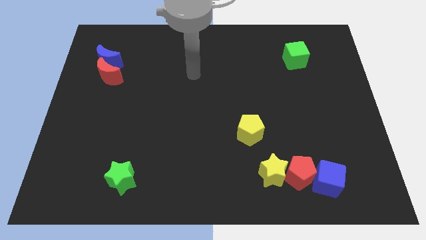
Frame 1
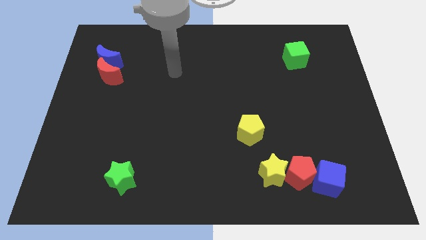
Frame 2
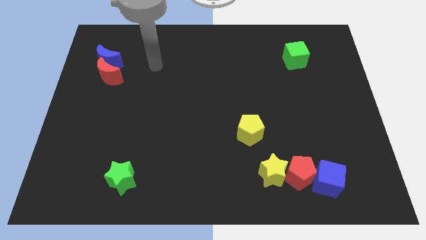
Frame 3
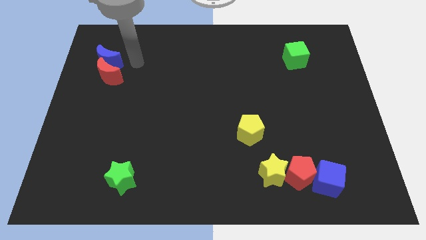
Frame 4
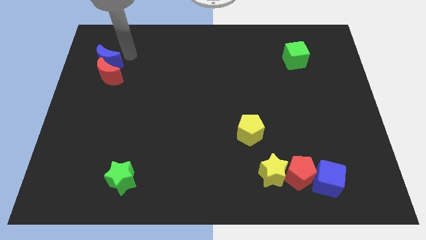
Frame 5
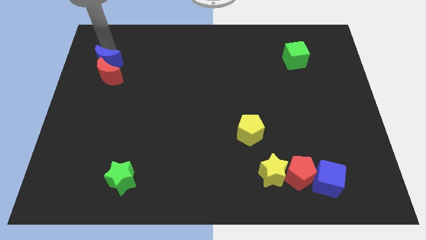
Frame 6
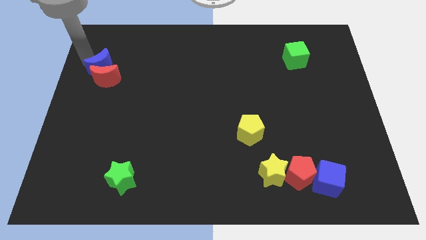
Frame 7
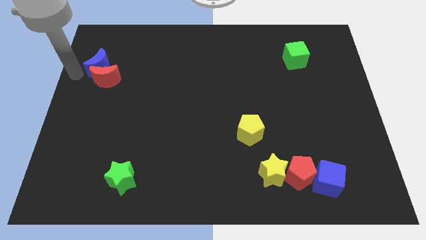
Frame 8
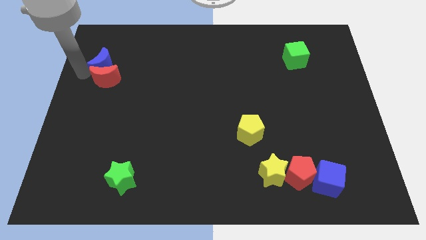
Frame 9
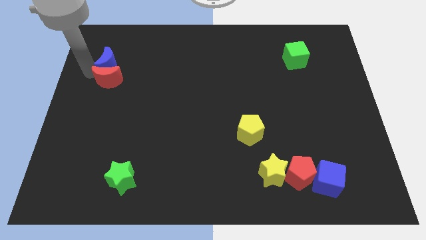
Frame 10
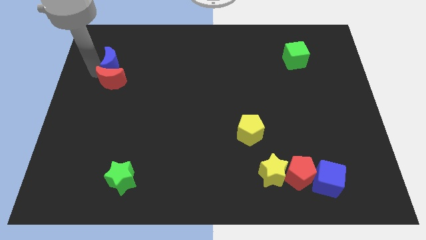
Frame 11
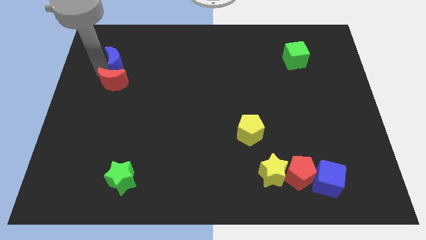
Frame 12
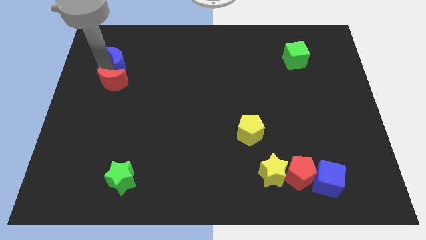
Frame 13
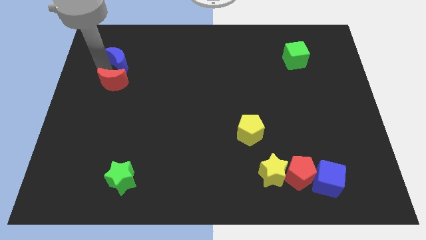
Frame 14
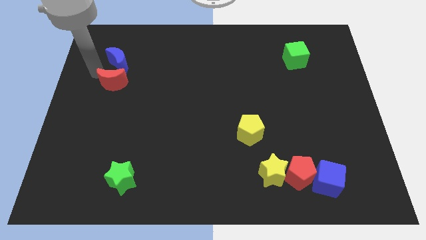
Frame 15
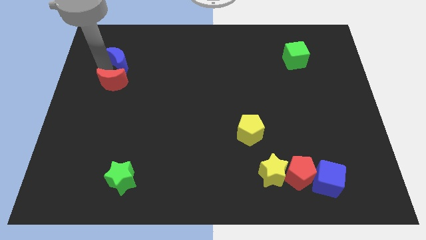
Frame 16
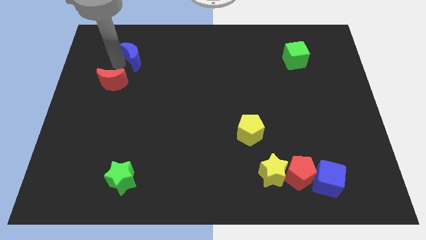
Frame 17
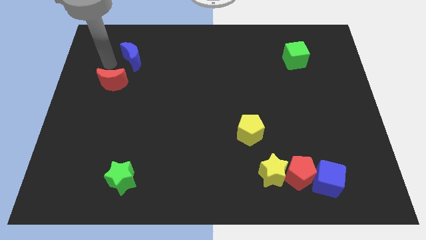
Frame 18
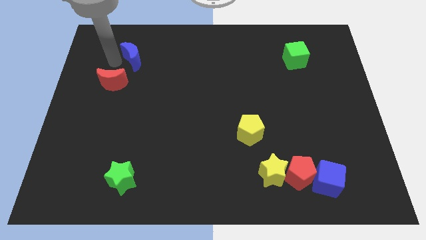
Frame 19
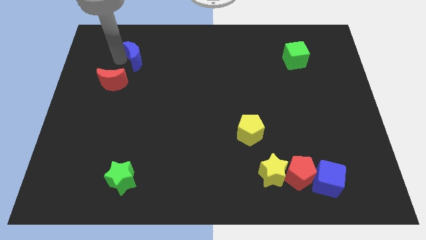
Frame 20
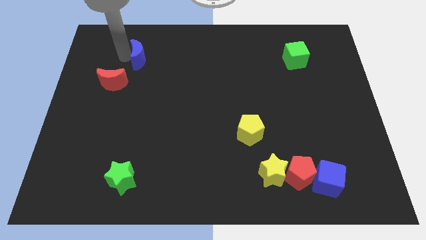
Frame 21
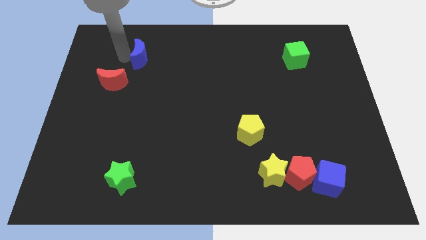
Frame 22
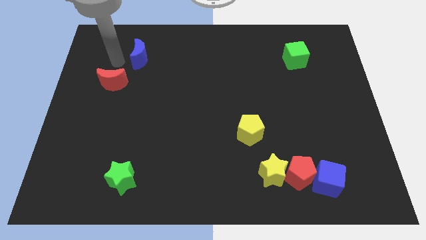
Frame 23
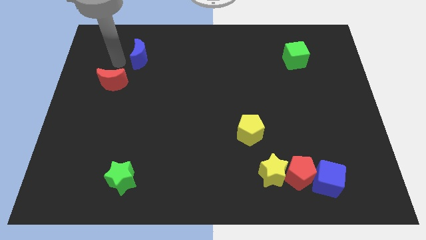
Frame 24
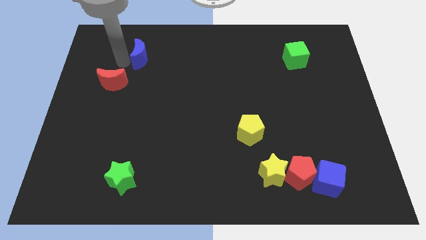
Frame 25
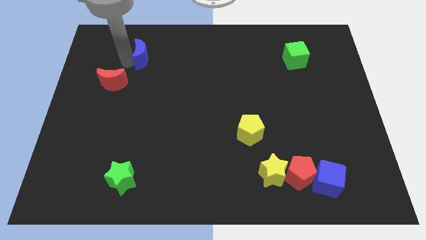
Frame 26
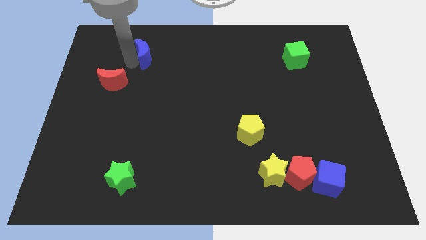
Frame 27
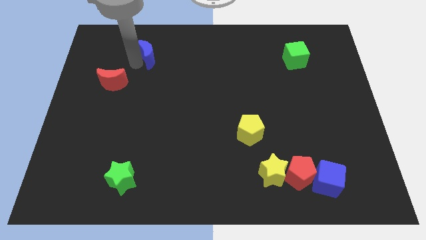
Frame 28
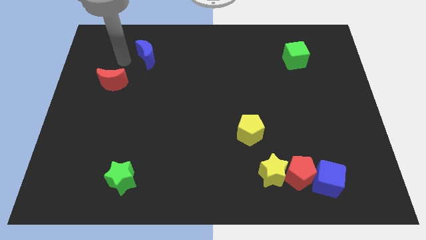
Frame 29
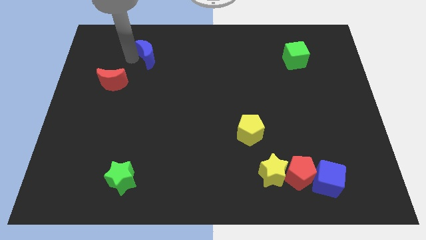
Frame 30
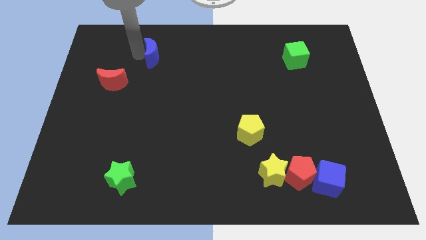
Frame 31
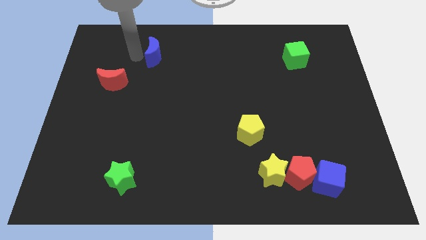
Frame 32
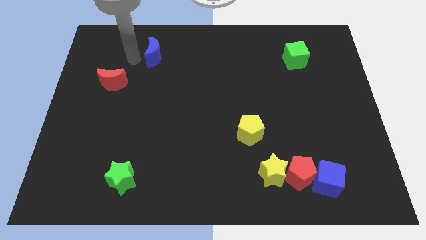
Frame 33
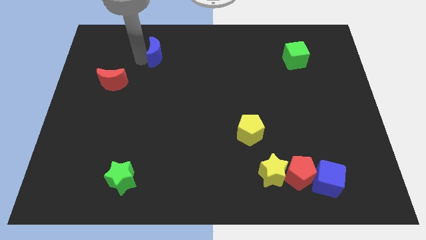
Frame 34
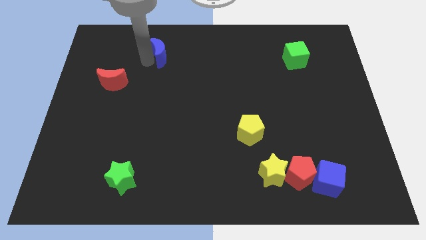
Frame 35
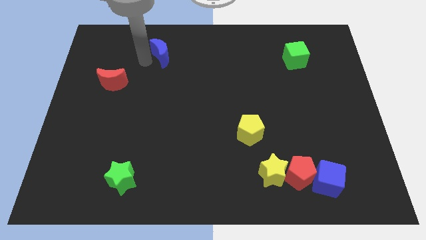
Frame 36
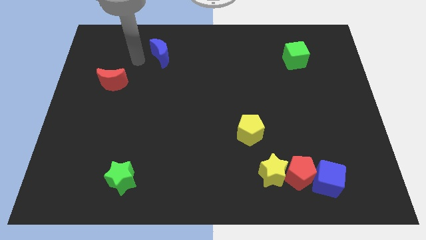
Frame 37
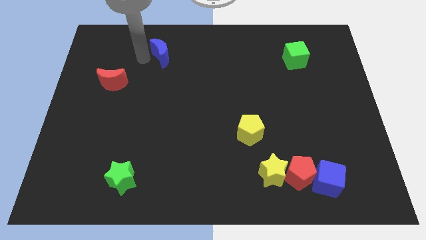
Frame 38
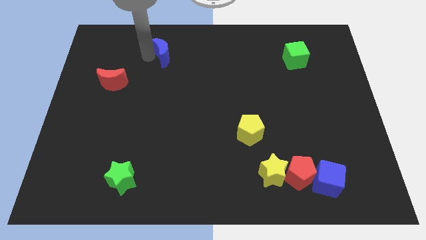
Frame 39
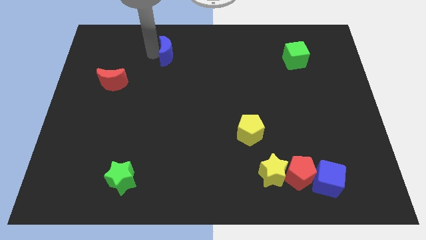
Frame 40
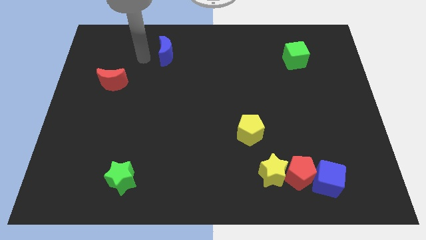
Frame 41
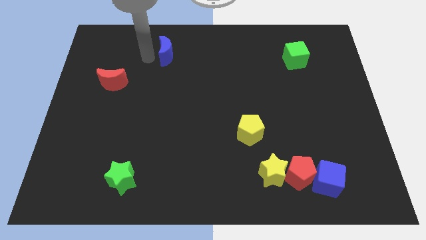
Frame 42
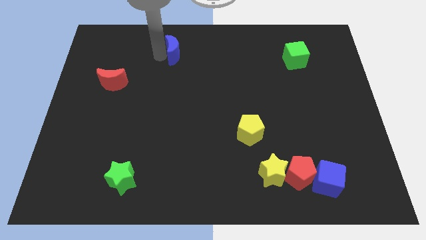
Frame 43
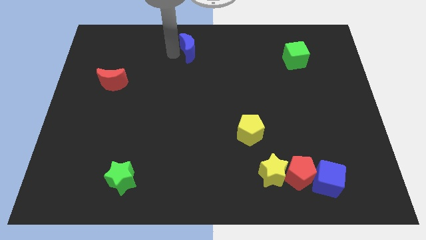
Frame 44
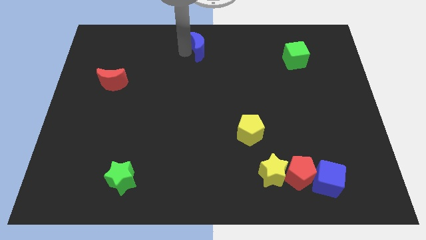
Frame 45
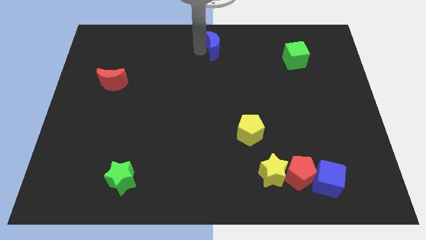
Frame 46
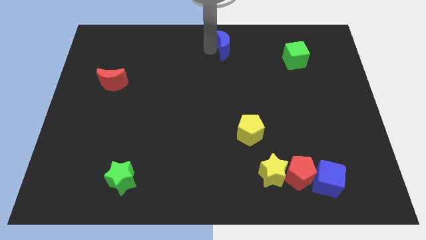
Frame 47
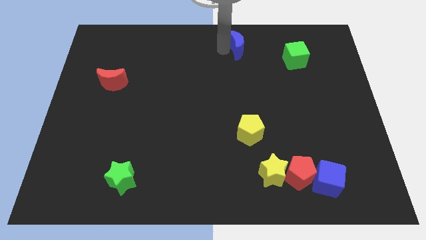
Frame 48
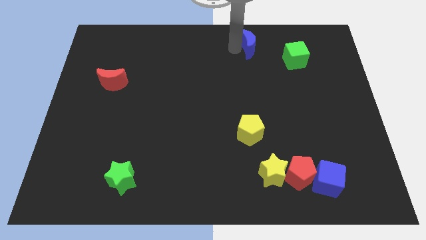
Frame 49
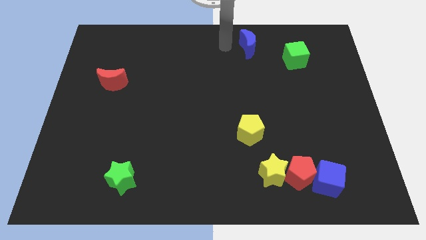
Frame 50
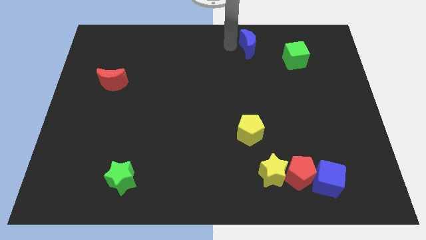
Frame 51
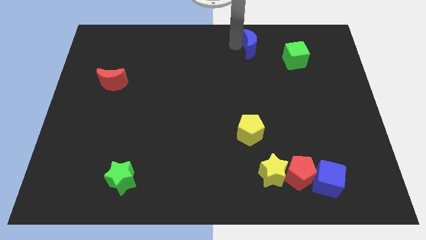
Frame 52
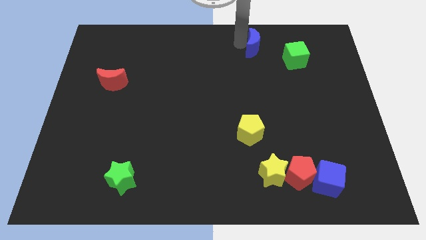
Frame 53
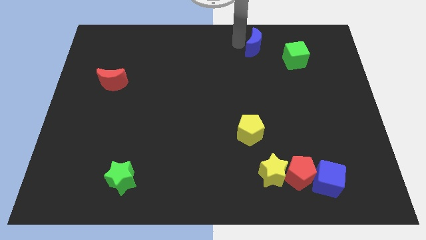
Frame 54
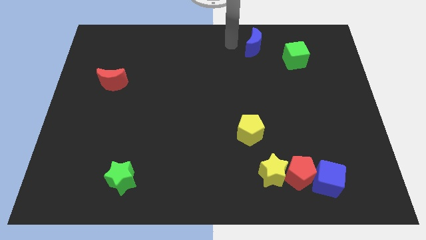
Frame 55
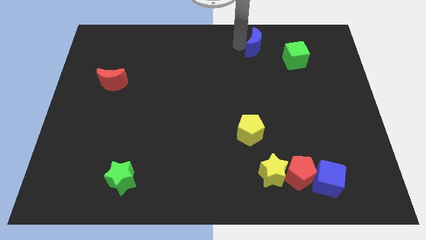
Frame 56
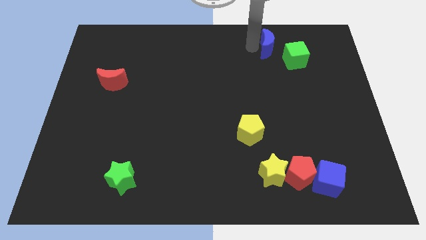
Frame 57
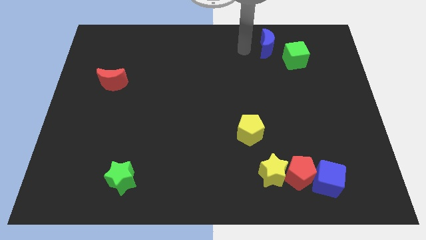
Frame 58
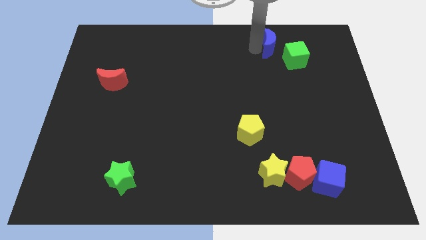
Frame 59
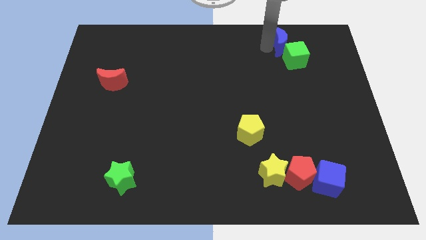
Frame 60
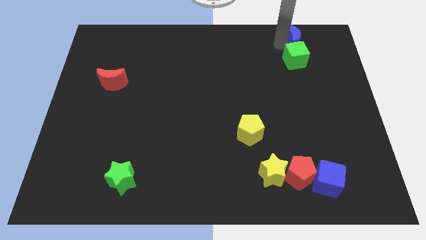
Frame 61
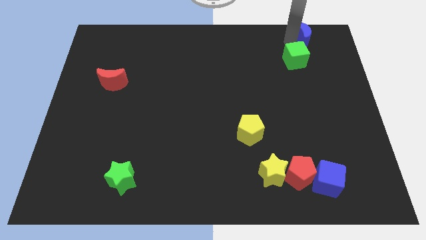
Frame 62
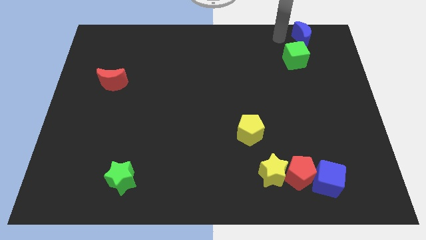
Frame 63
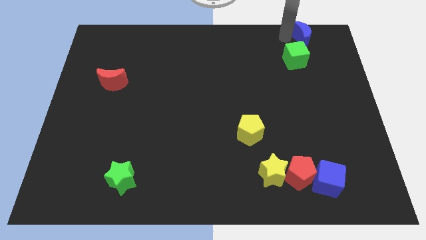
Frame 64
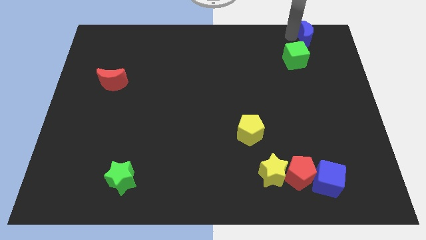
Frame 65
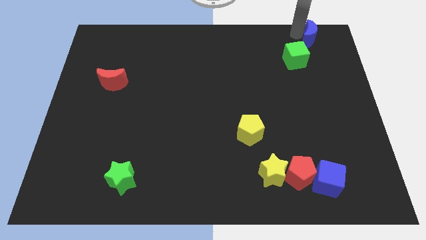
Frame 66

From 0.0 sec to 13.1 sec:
push the blue moon to the upper right corner
